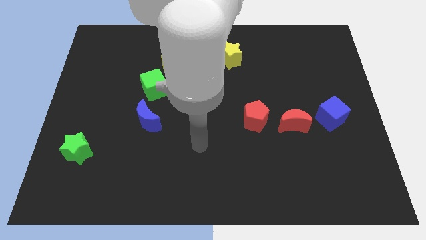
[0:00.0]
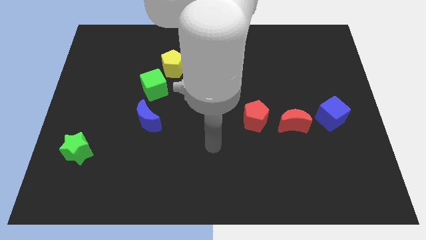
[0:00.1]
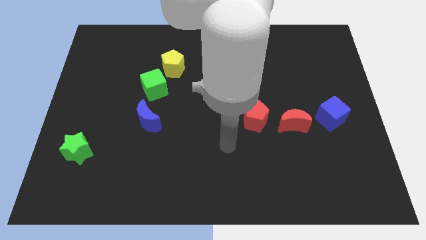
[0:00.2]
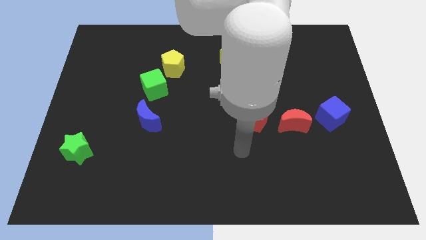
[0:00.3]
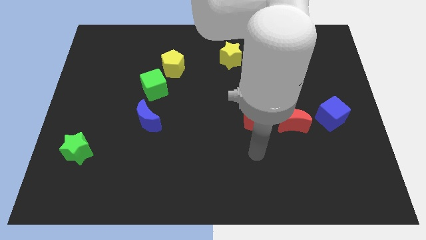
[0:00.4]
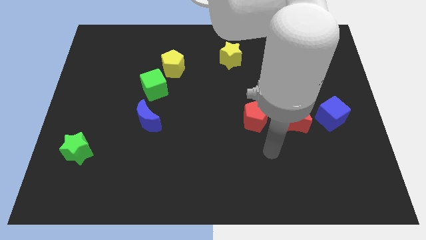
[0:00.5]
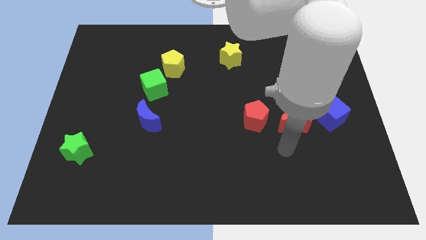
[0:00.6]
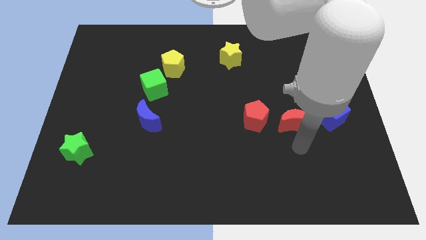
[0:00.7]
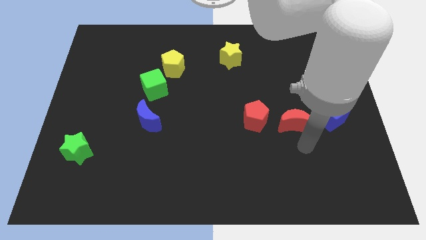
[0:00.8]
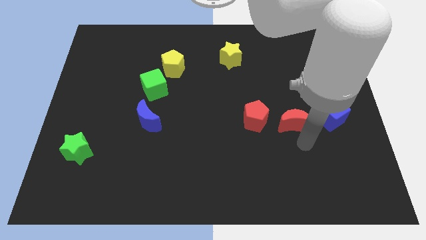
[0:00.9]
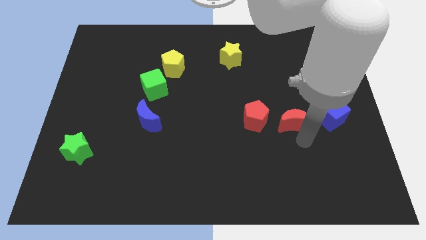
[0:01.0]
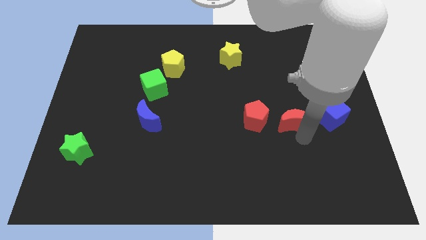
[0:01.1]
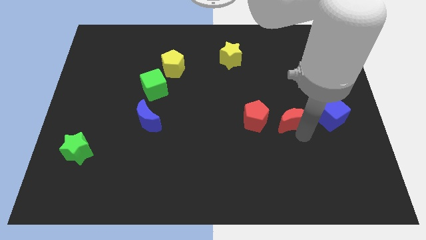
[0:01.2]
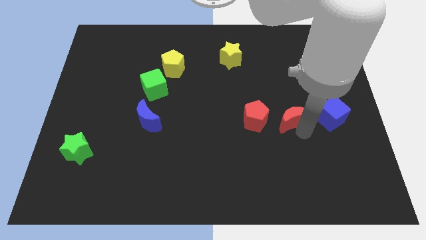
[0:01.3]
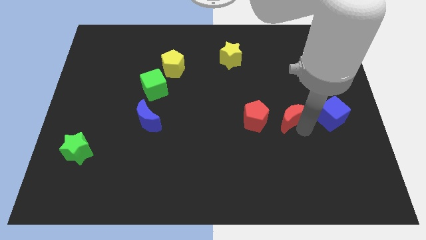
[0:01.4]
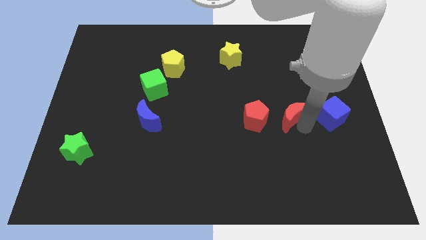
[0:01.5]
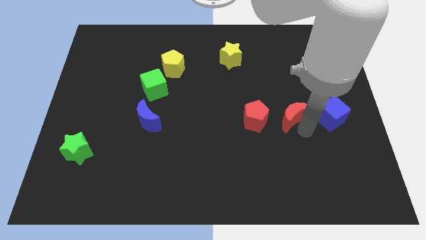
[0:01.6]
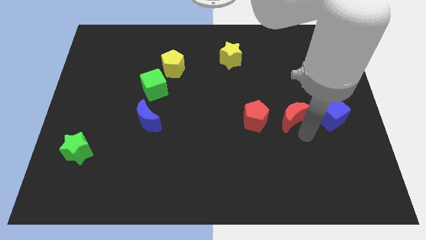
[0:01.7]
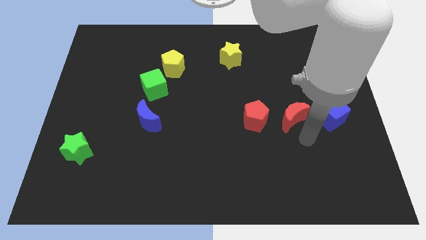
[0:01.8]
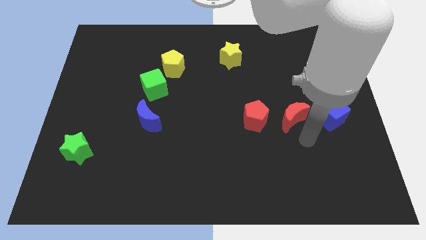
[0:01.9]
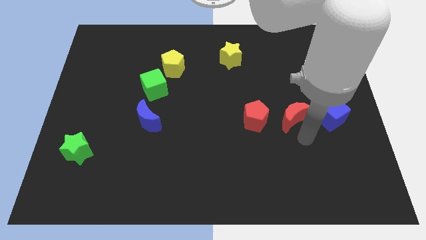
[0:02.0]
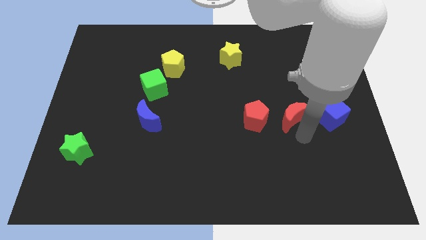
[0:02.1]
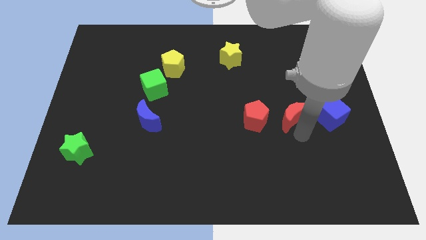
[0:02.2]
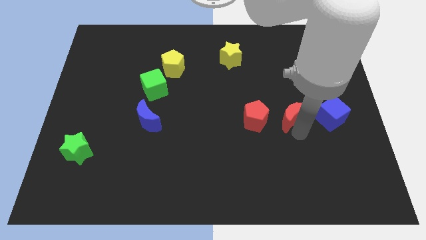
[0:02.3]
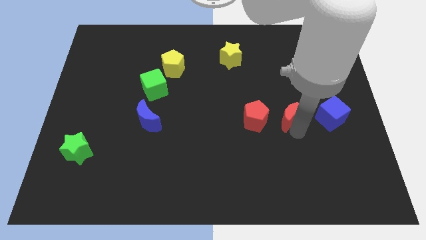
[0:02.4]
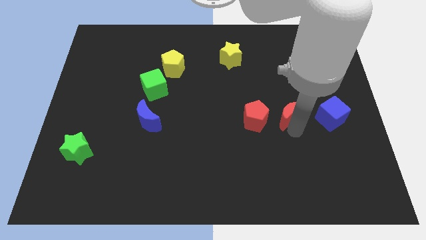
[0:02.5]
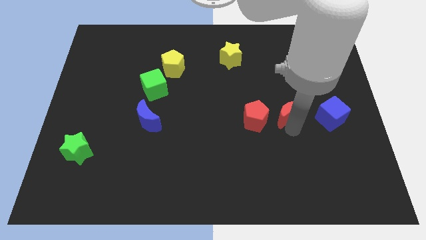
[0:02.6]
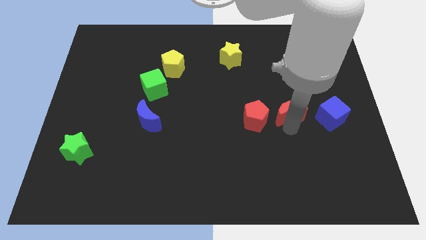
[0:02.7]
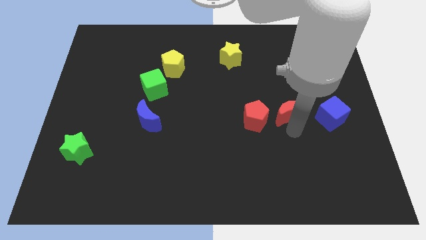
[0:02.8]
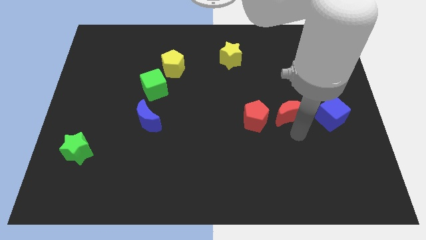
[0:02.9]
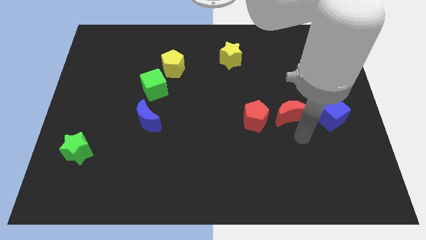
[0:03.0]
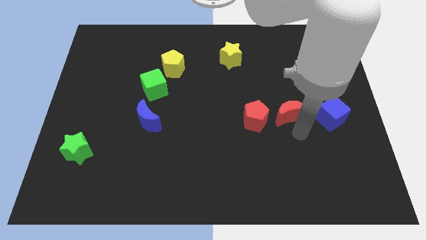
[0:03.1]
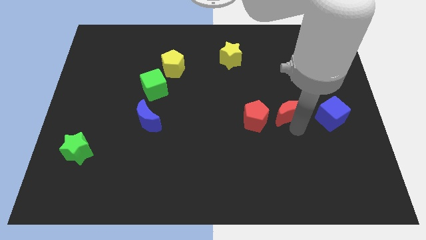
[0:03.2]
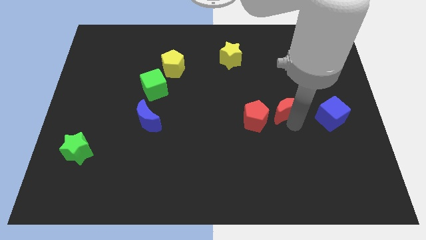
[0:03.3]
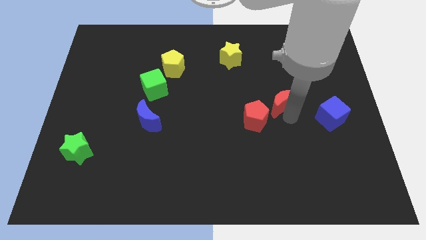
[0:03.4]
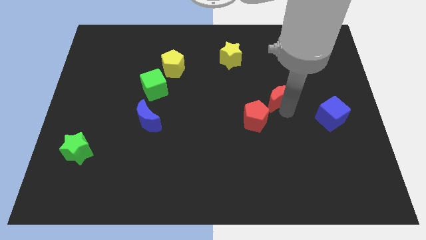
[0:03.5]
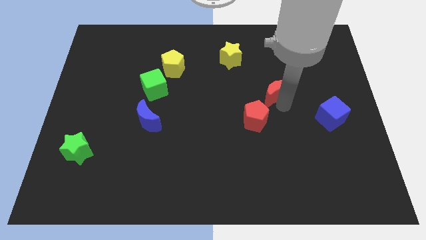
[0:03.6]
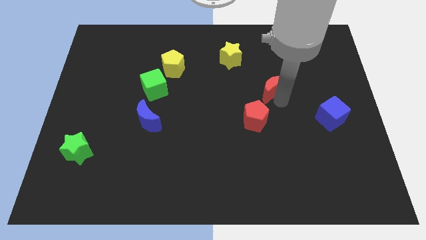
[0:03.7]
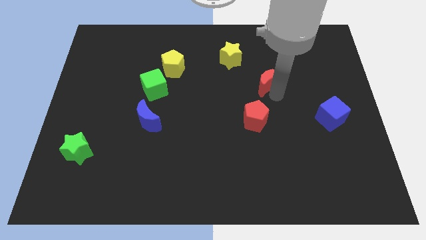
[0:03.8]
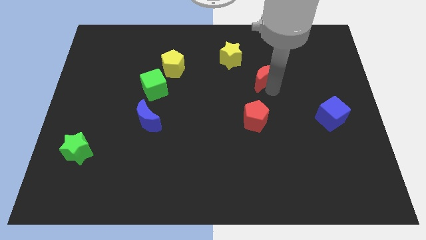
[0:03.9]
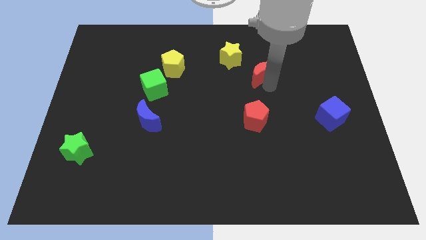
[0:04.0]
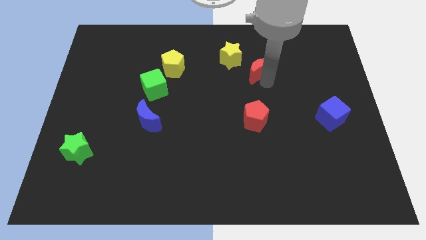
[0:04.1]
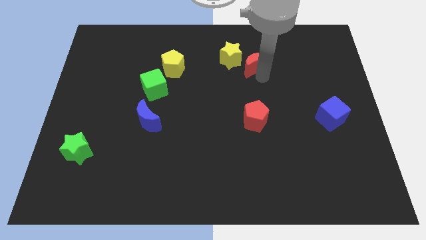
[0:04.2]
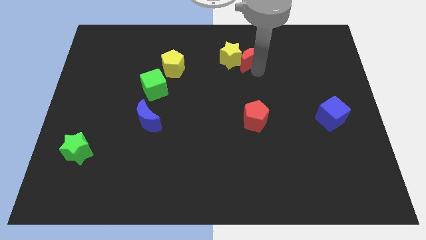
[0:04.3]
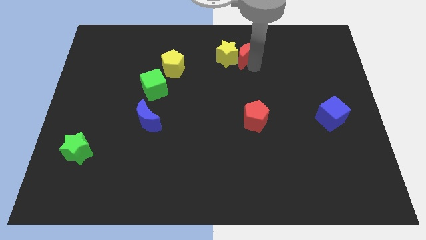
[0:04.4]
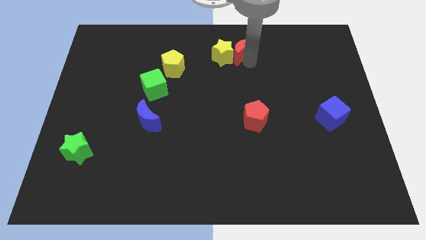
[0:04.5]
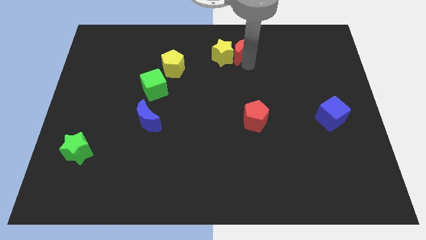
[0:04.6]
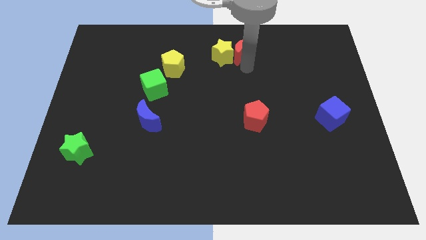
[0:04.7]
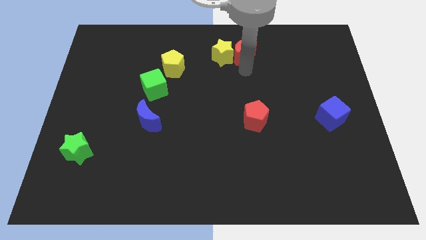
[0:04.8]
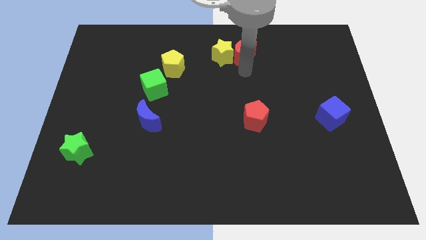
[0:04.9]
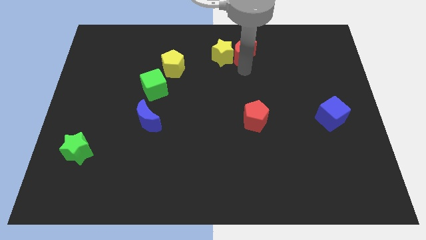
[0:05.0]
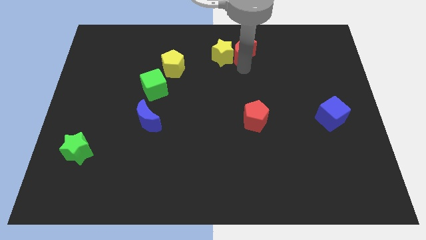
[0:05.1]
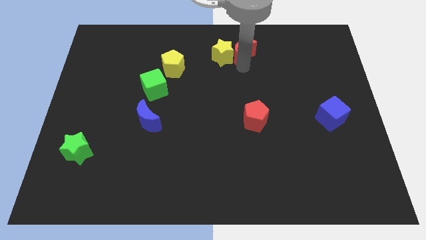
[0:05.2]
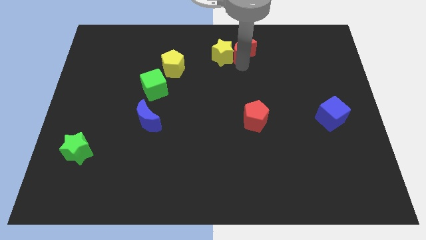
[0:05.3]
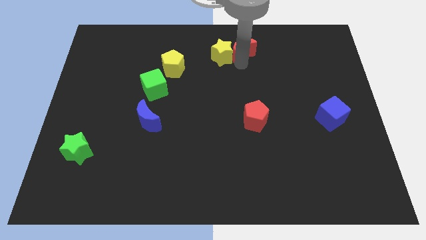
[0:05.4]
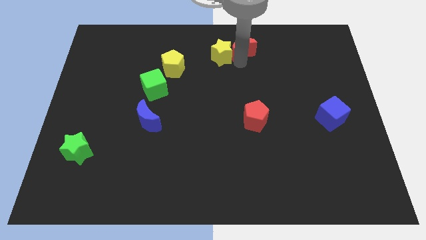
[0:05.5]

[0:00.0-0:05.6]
slide the red moon to the top
